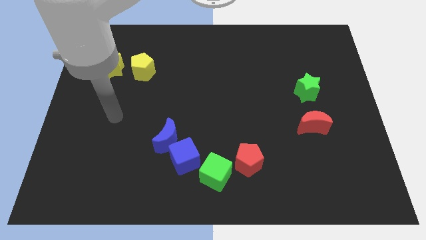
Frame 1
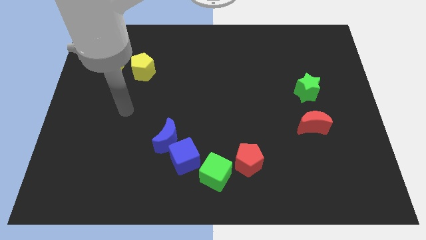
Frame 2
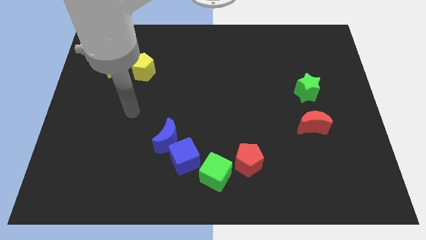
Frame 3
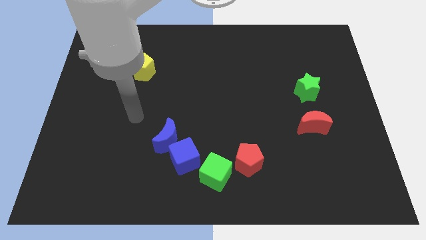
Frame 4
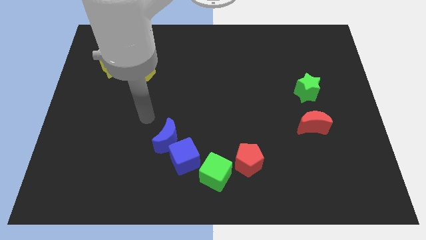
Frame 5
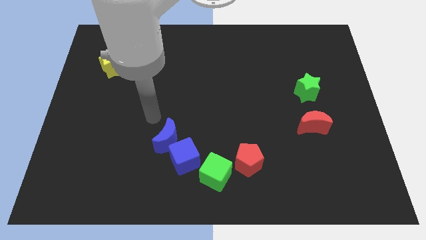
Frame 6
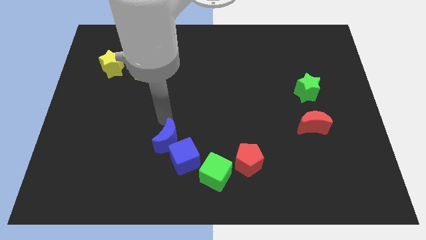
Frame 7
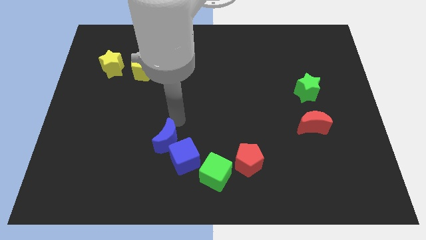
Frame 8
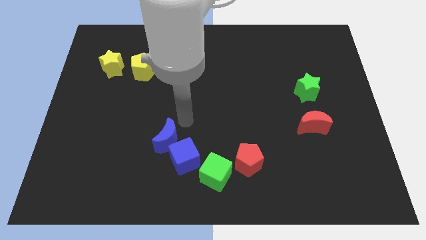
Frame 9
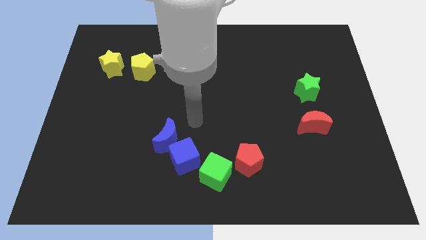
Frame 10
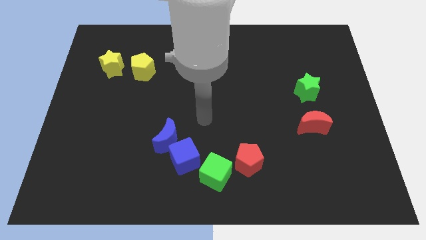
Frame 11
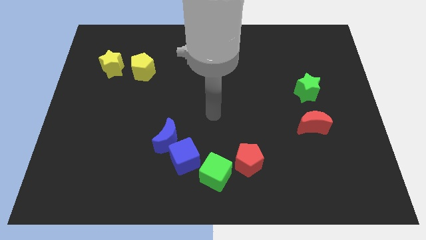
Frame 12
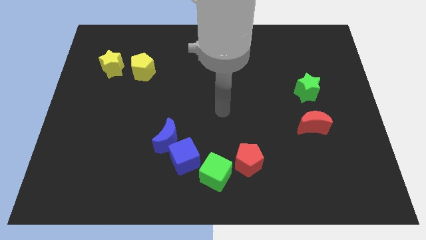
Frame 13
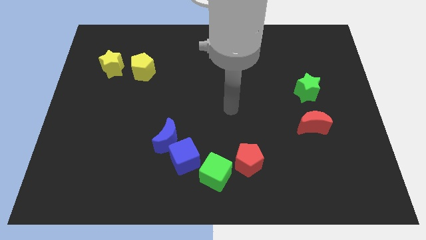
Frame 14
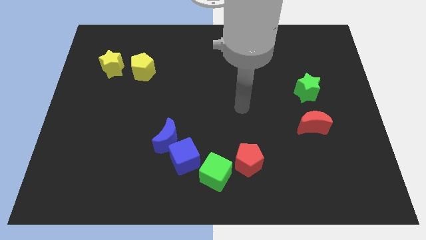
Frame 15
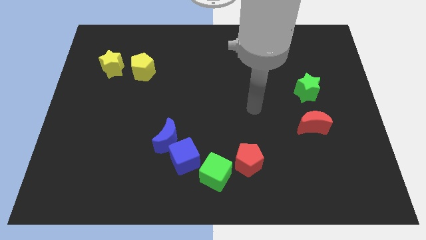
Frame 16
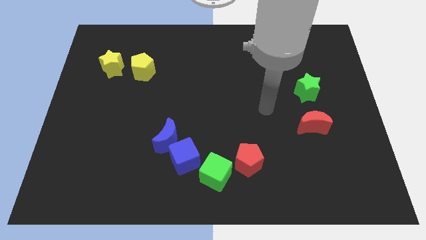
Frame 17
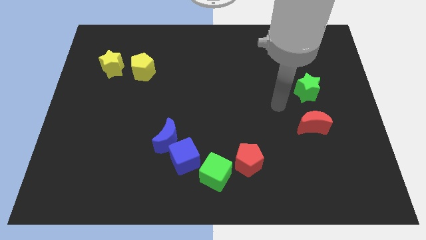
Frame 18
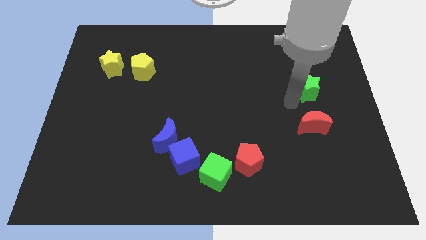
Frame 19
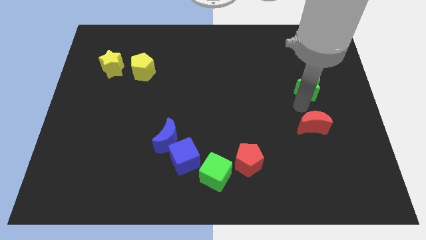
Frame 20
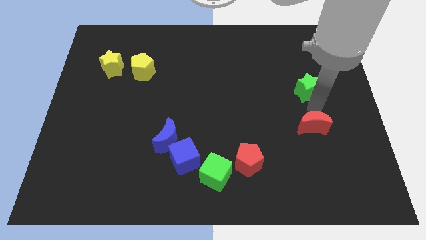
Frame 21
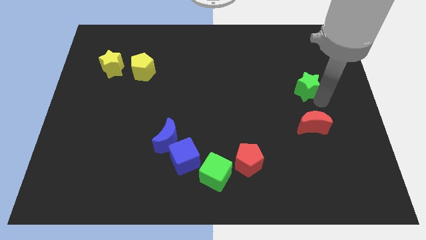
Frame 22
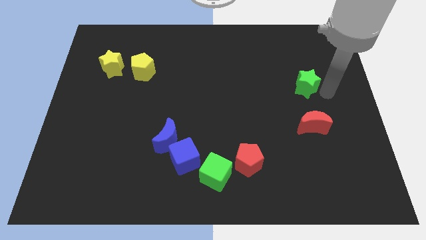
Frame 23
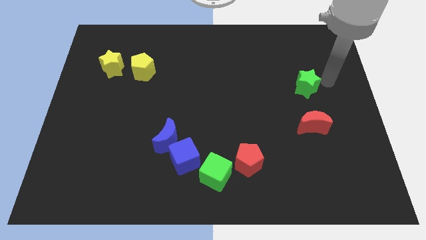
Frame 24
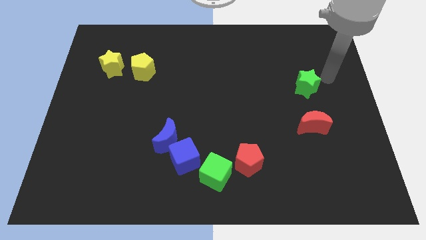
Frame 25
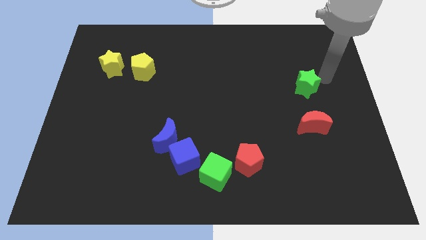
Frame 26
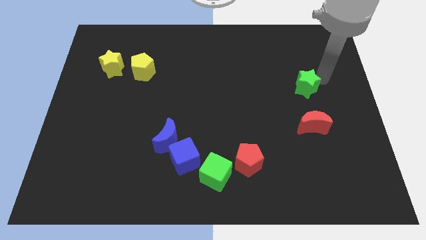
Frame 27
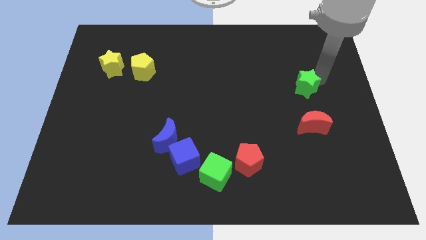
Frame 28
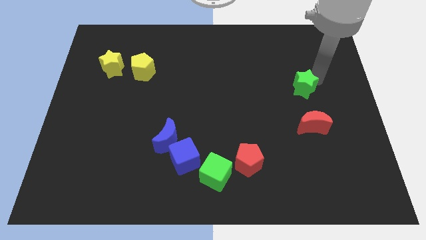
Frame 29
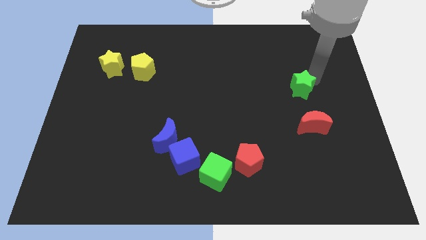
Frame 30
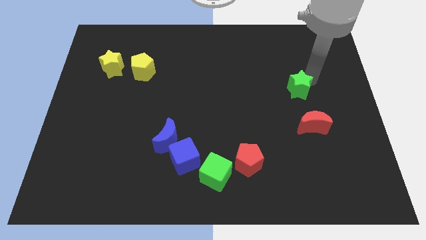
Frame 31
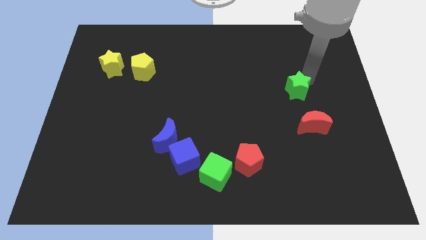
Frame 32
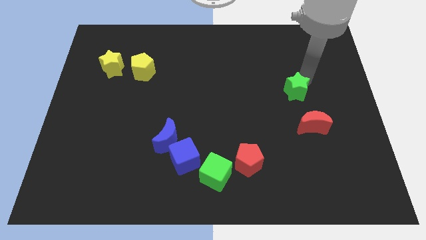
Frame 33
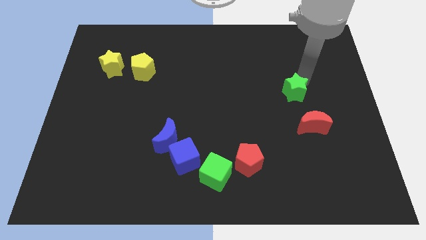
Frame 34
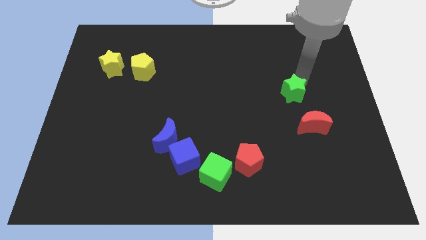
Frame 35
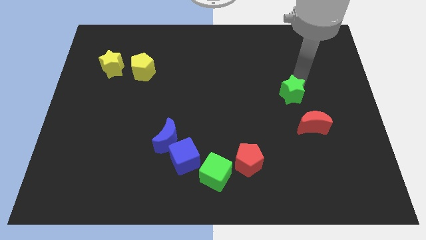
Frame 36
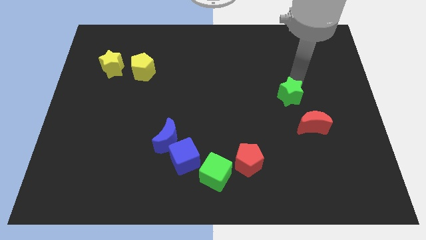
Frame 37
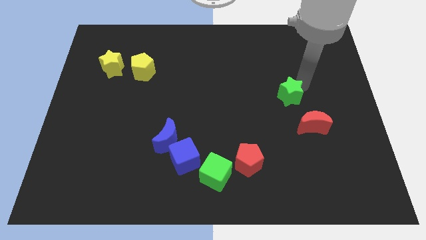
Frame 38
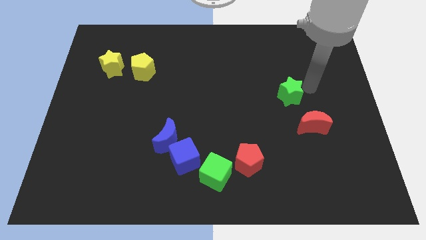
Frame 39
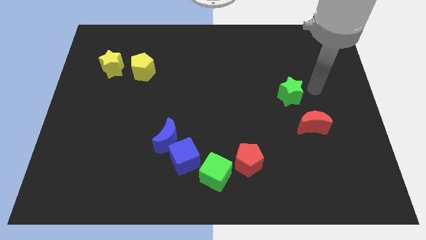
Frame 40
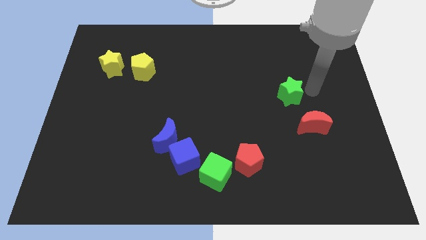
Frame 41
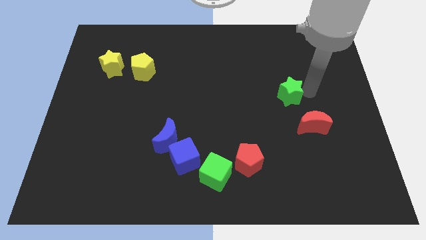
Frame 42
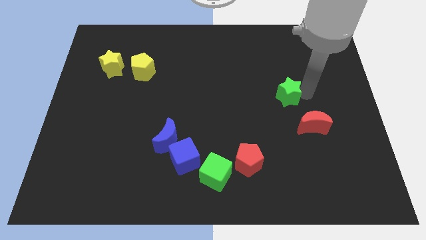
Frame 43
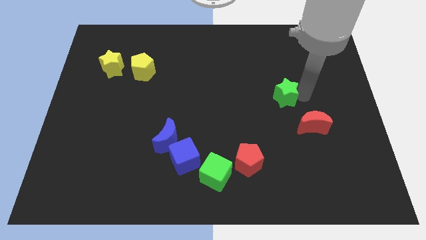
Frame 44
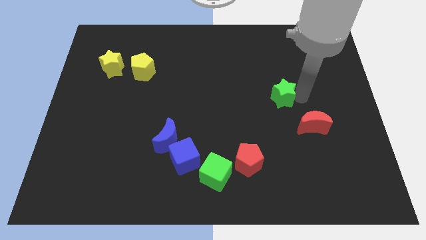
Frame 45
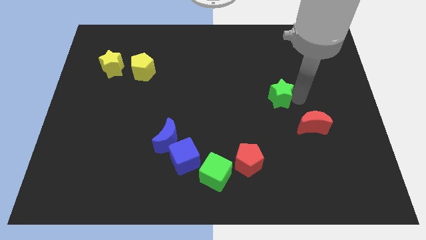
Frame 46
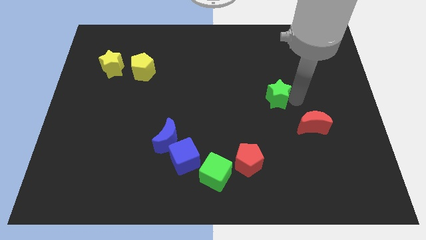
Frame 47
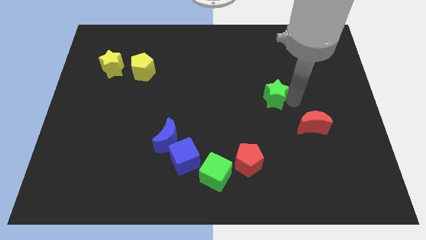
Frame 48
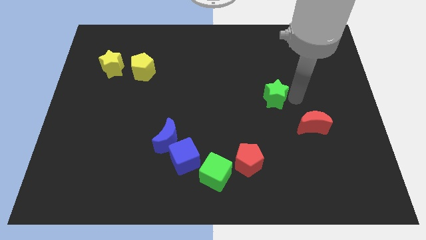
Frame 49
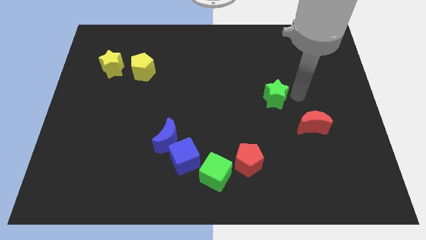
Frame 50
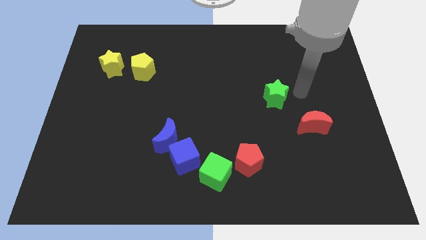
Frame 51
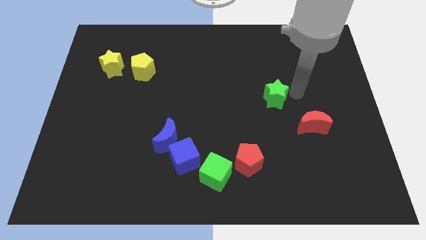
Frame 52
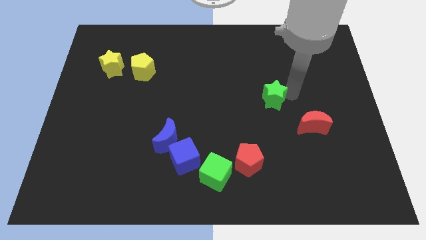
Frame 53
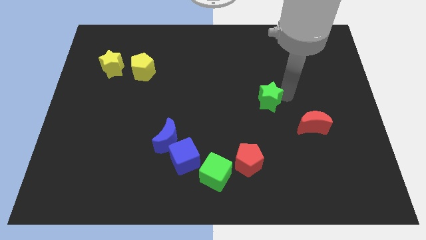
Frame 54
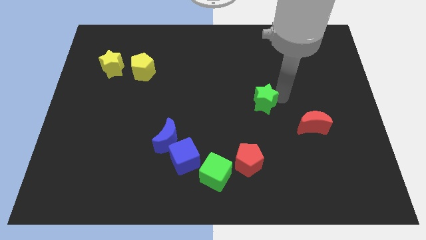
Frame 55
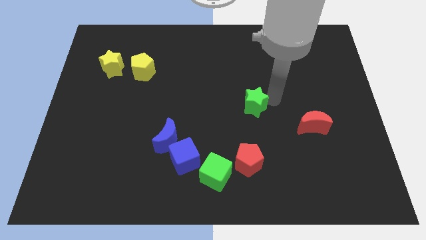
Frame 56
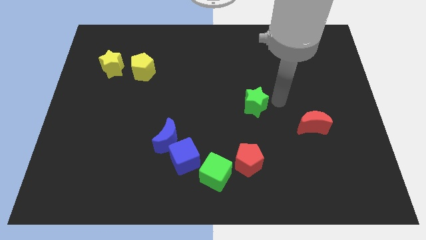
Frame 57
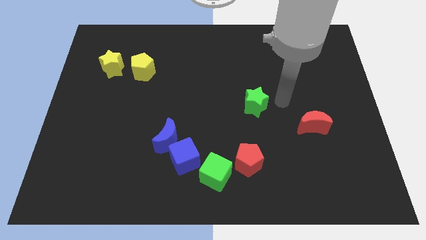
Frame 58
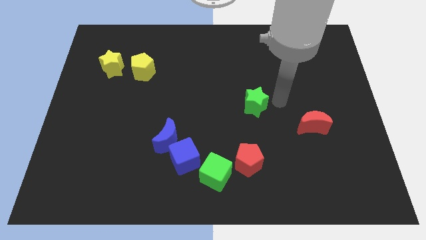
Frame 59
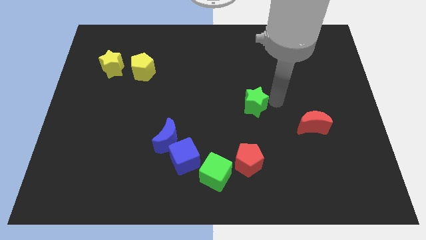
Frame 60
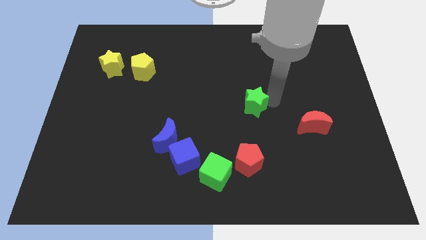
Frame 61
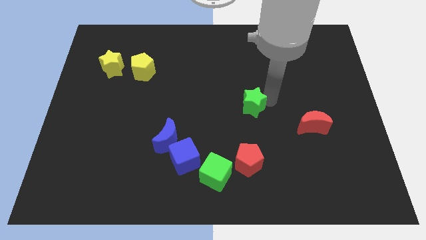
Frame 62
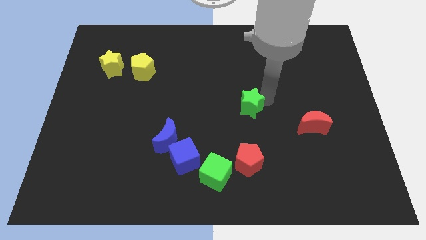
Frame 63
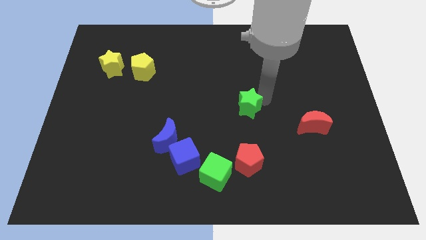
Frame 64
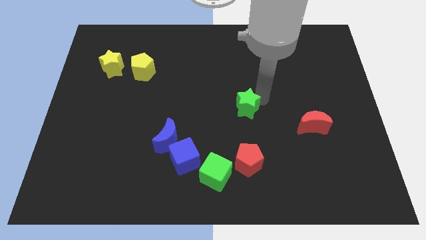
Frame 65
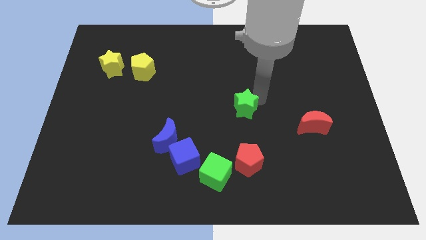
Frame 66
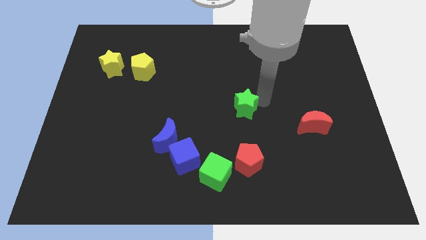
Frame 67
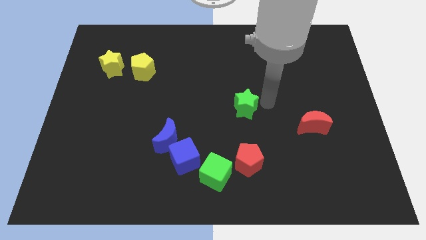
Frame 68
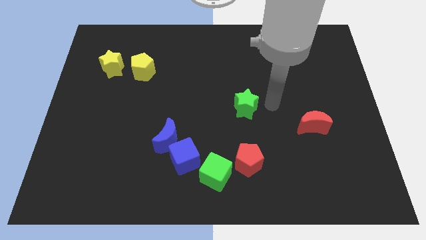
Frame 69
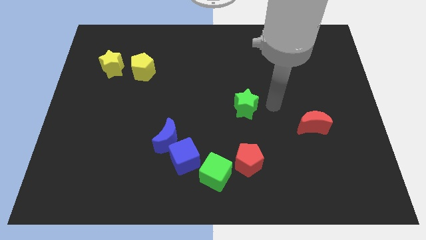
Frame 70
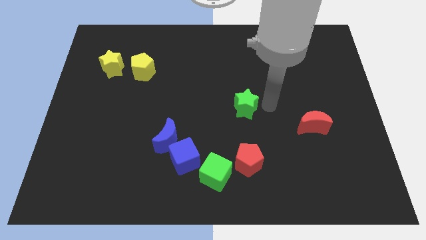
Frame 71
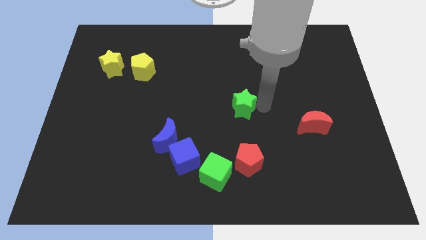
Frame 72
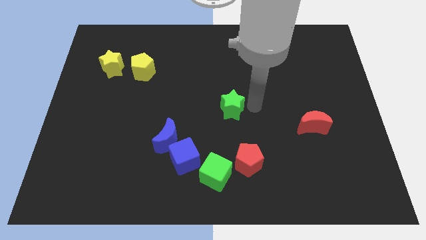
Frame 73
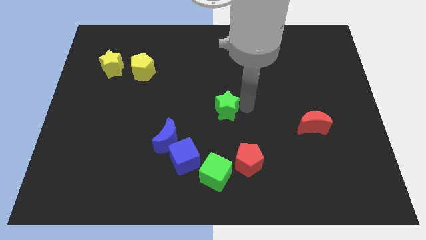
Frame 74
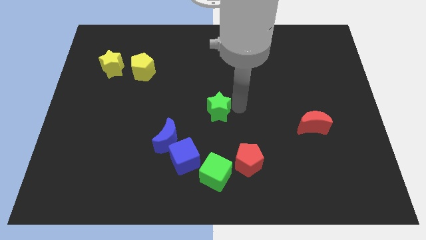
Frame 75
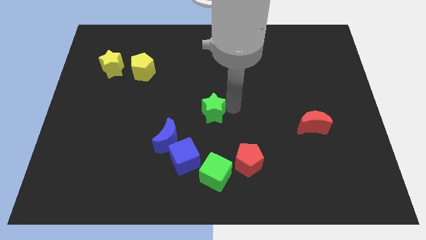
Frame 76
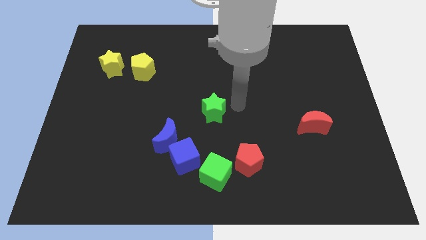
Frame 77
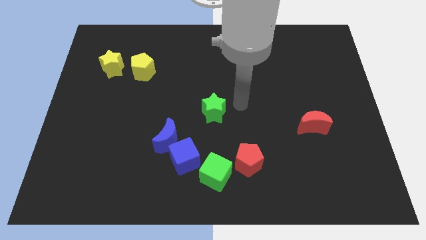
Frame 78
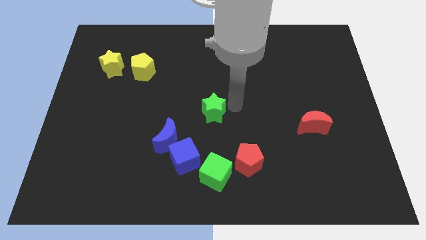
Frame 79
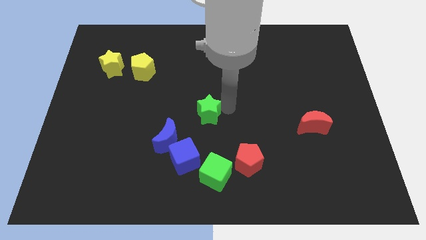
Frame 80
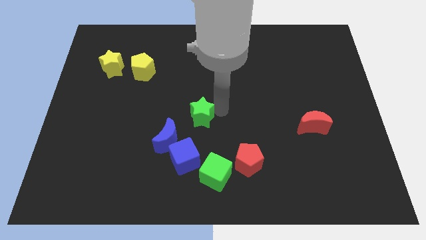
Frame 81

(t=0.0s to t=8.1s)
slide the green star above the blue cube

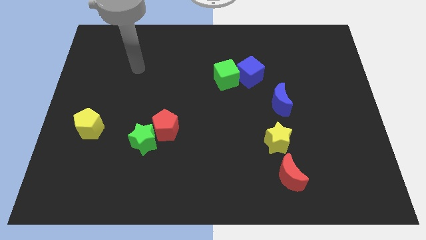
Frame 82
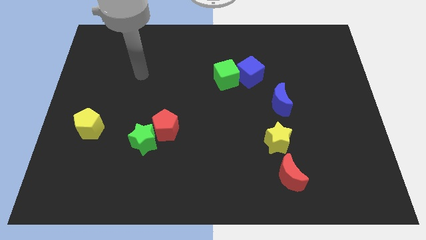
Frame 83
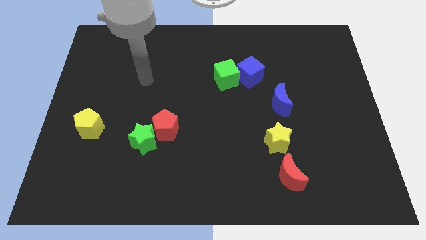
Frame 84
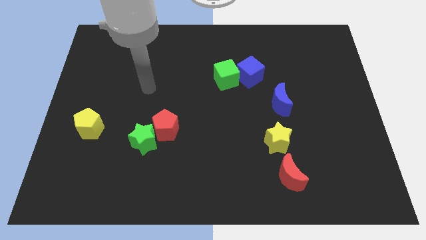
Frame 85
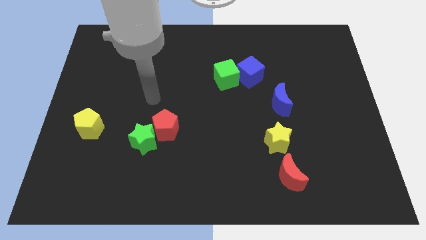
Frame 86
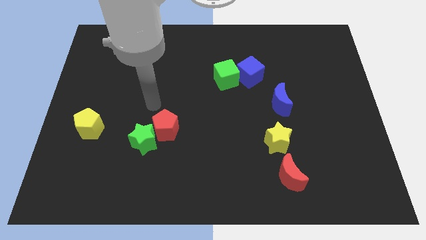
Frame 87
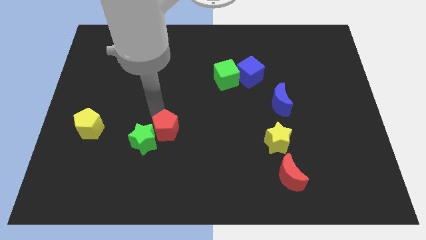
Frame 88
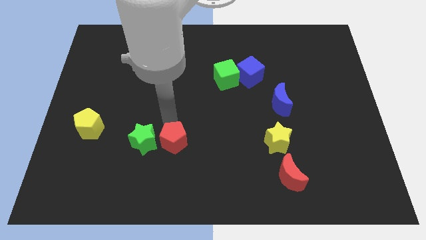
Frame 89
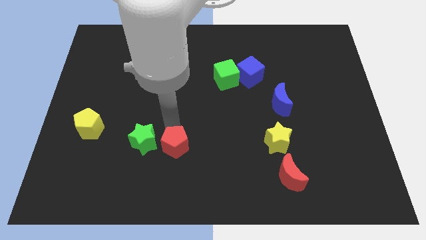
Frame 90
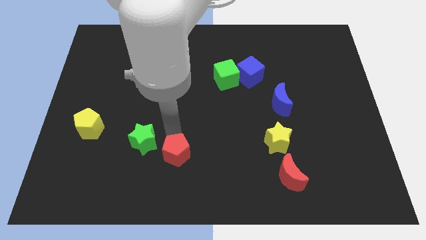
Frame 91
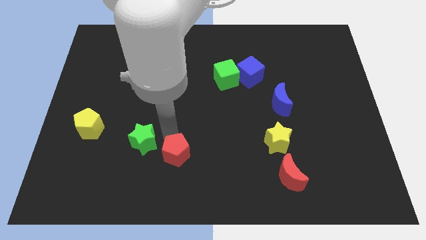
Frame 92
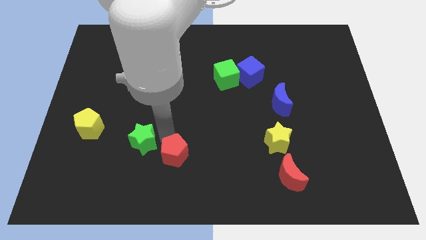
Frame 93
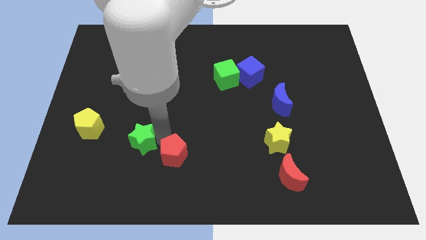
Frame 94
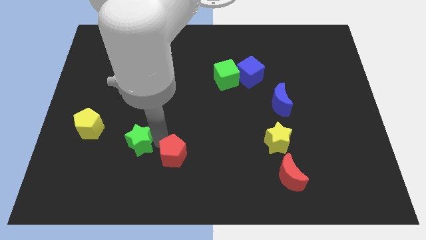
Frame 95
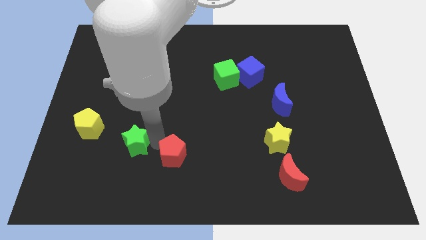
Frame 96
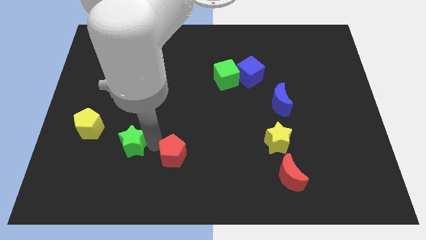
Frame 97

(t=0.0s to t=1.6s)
push the green star diagonally down and to the right of the yellow pentagon
